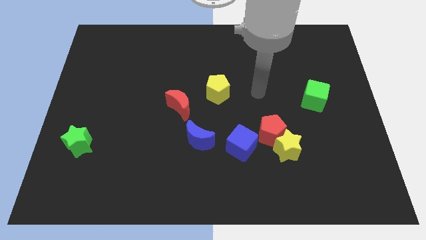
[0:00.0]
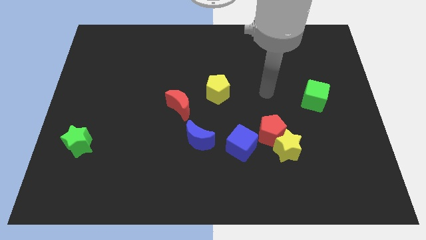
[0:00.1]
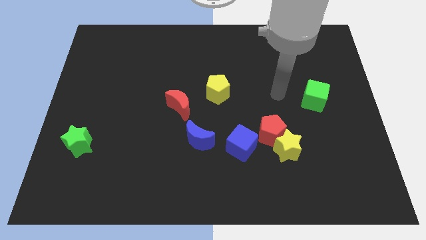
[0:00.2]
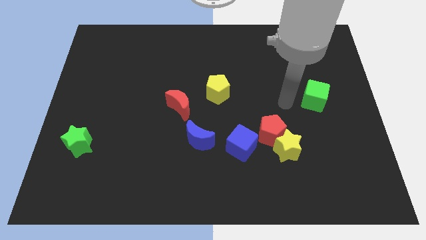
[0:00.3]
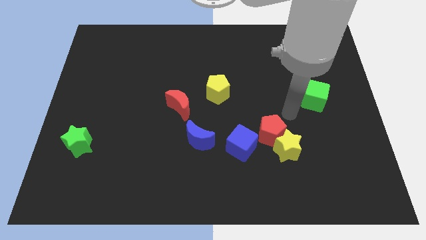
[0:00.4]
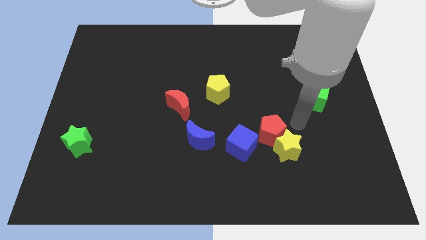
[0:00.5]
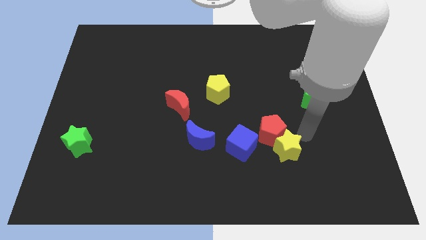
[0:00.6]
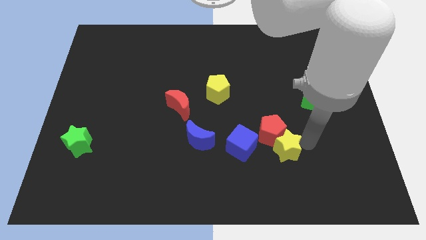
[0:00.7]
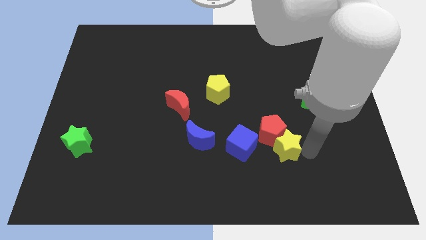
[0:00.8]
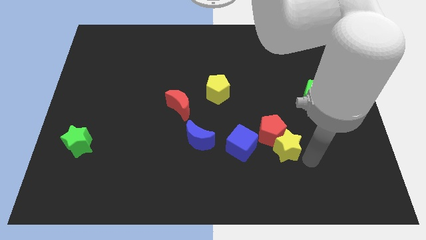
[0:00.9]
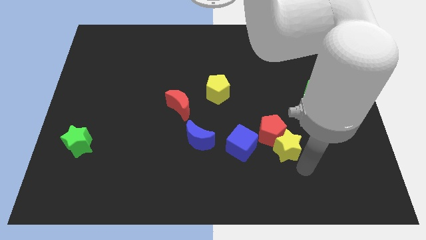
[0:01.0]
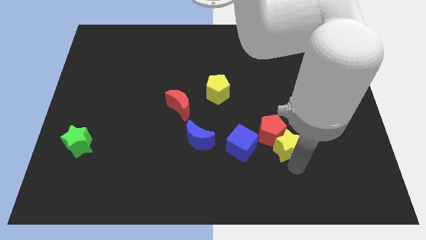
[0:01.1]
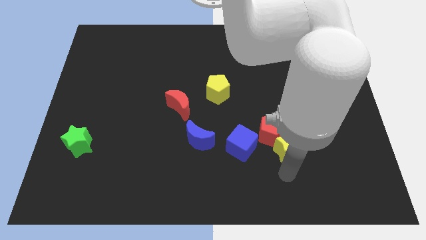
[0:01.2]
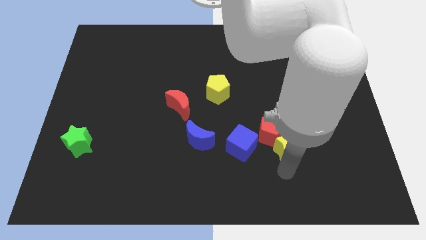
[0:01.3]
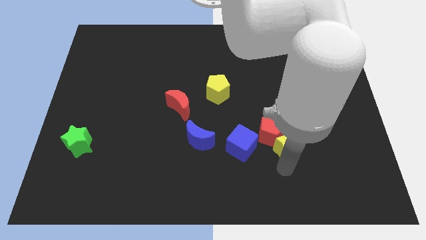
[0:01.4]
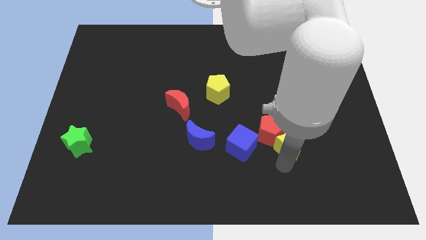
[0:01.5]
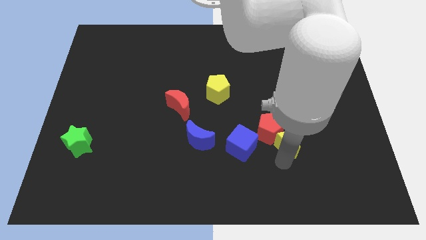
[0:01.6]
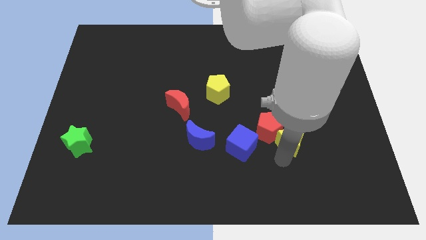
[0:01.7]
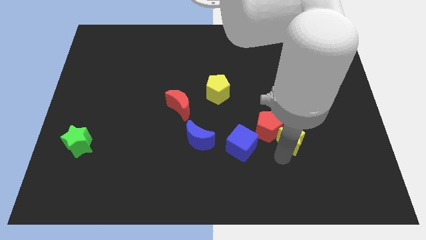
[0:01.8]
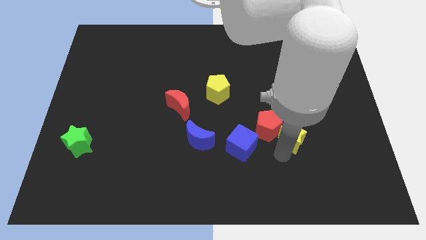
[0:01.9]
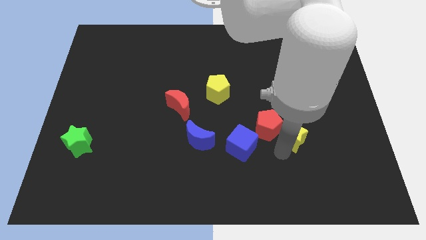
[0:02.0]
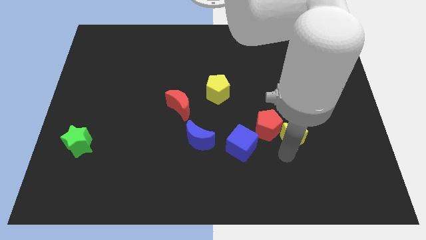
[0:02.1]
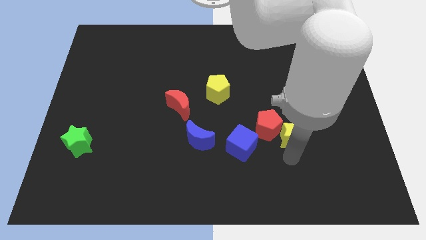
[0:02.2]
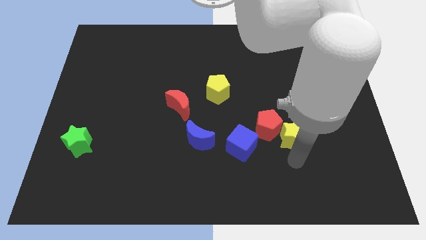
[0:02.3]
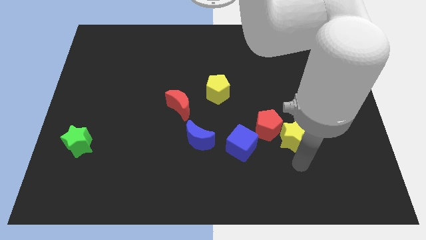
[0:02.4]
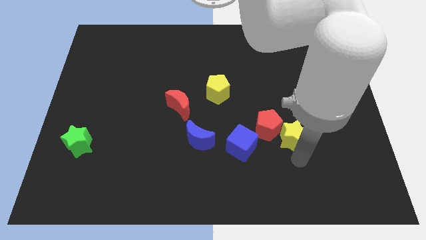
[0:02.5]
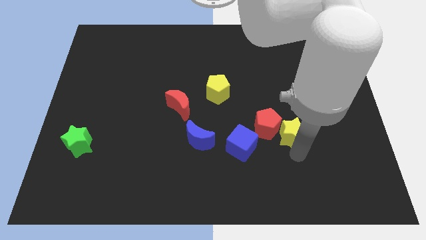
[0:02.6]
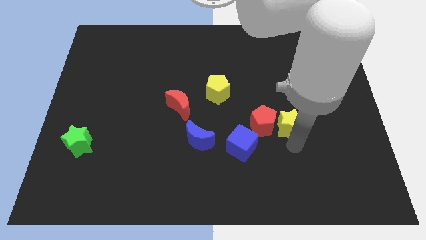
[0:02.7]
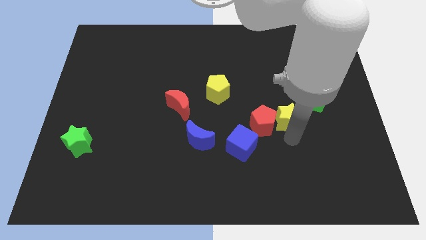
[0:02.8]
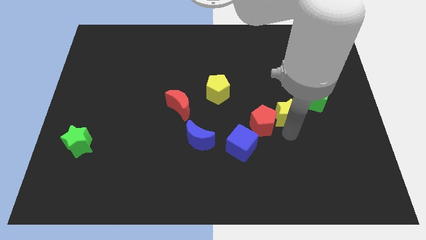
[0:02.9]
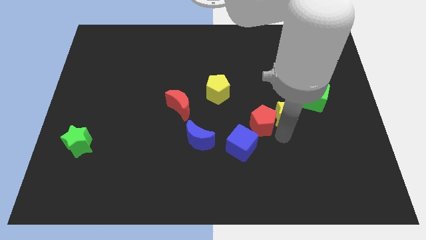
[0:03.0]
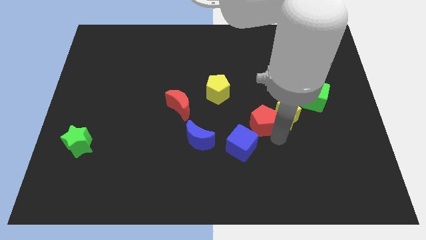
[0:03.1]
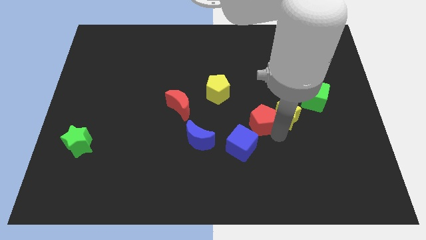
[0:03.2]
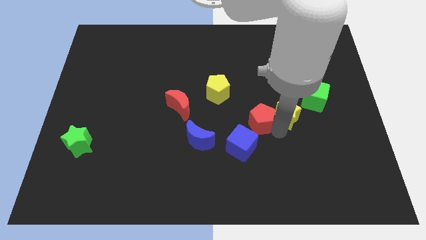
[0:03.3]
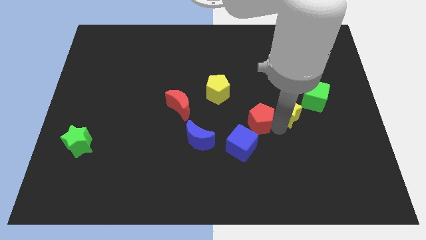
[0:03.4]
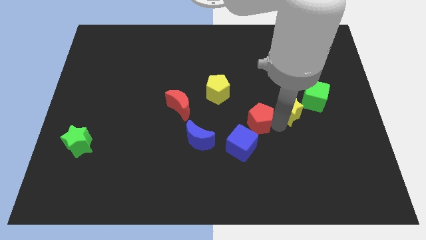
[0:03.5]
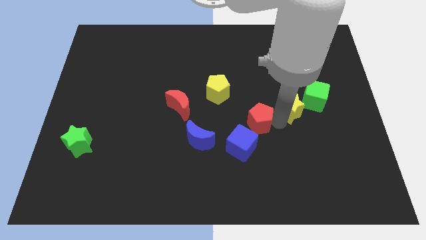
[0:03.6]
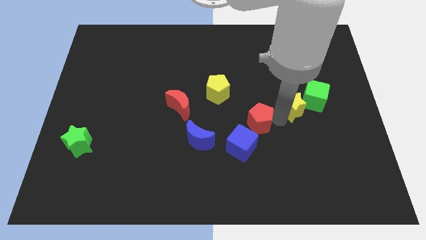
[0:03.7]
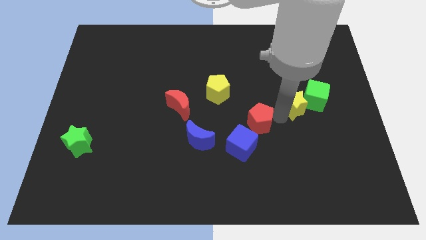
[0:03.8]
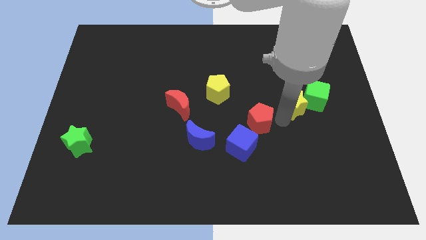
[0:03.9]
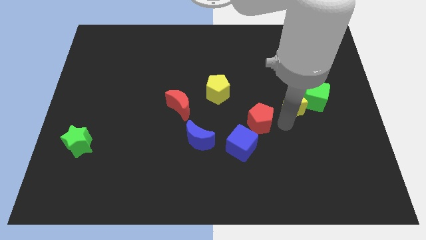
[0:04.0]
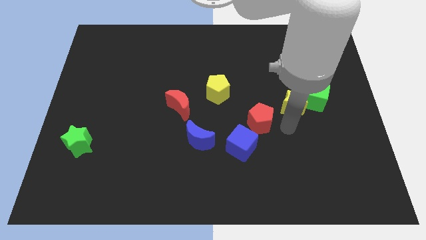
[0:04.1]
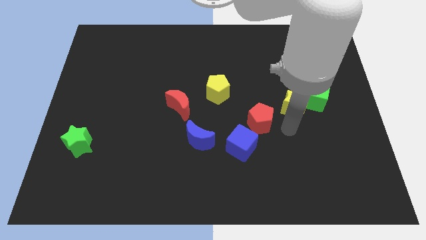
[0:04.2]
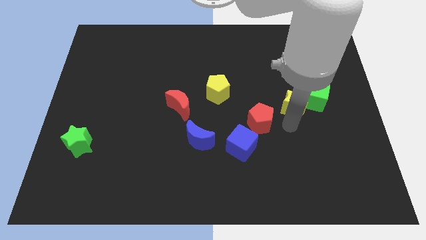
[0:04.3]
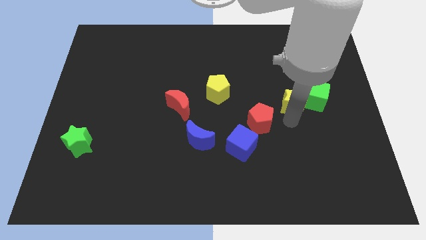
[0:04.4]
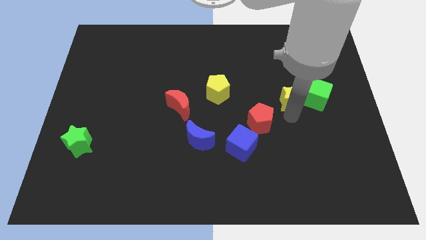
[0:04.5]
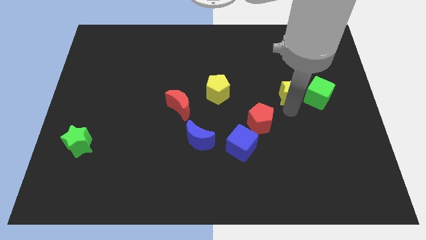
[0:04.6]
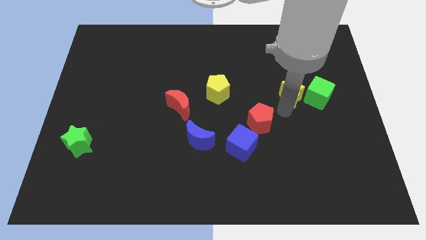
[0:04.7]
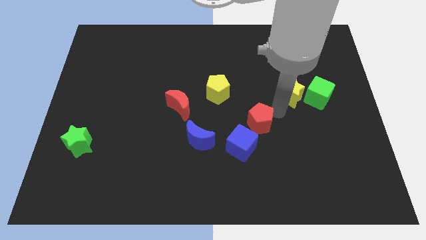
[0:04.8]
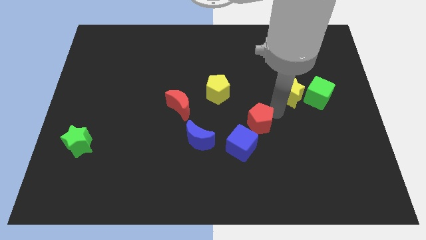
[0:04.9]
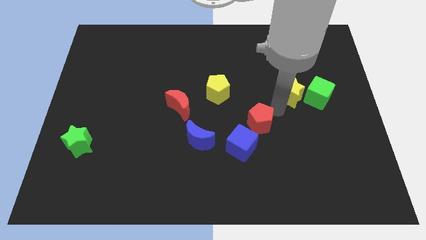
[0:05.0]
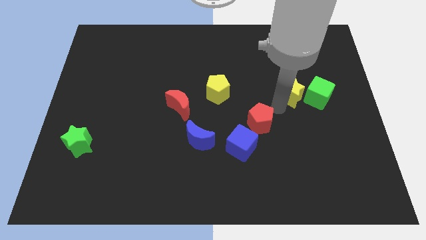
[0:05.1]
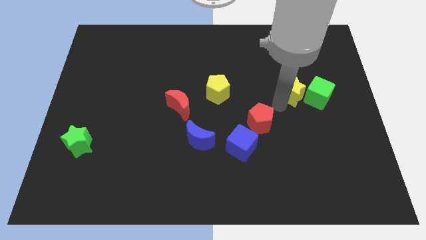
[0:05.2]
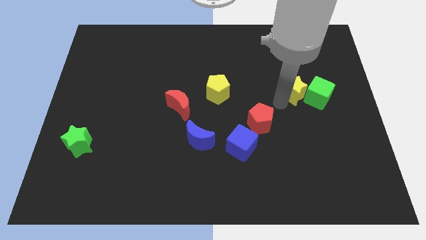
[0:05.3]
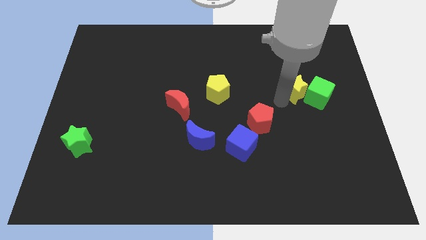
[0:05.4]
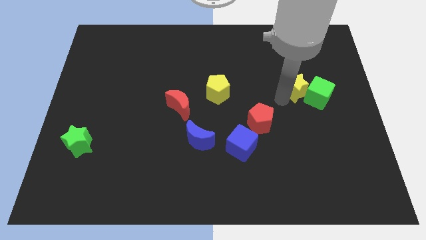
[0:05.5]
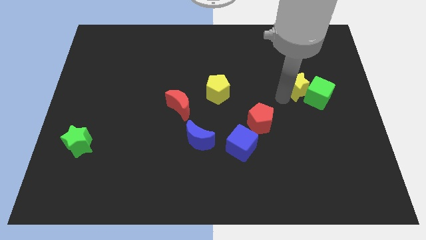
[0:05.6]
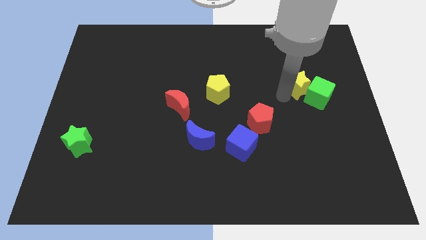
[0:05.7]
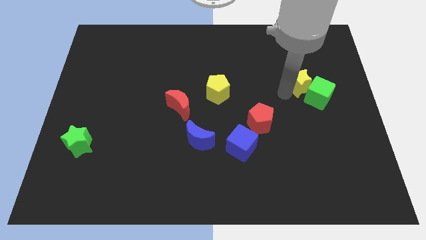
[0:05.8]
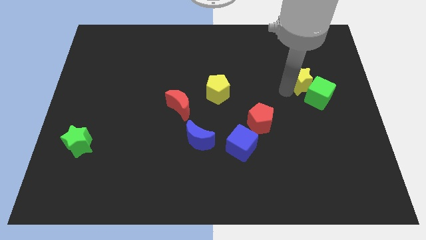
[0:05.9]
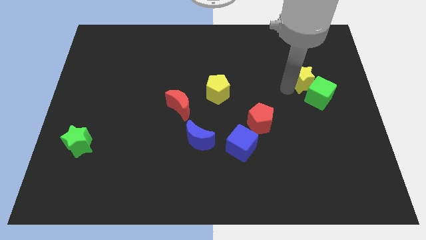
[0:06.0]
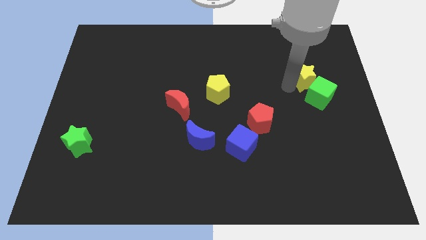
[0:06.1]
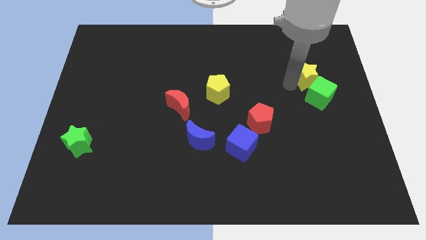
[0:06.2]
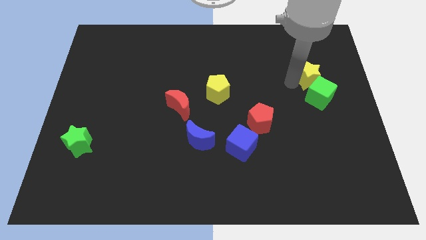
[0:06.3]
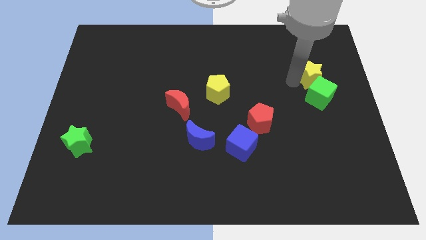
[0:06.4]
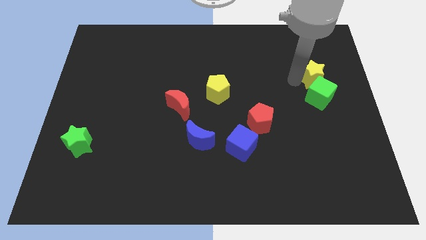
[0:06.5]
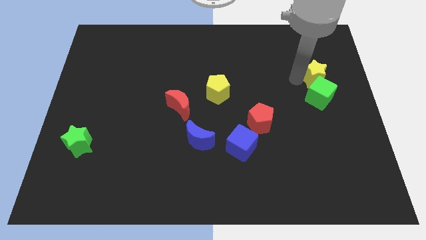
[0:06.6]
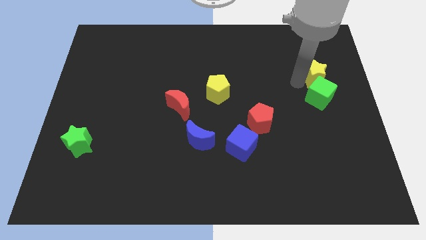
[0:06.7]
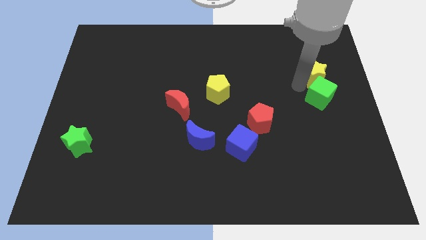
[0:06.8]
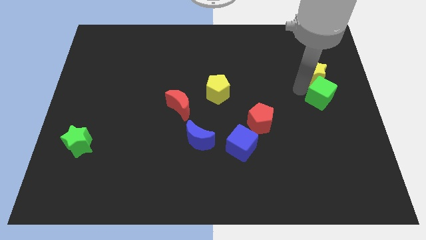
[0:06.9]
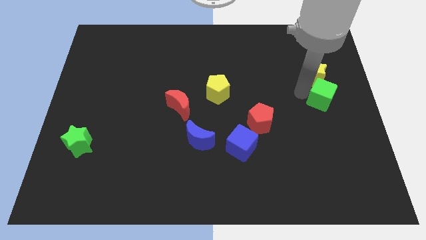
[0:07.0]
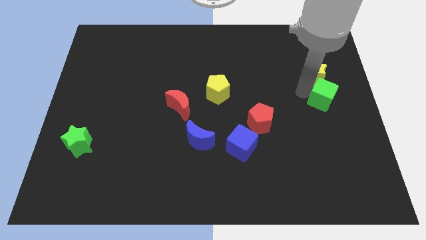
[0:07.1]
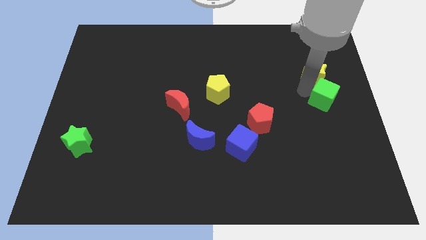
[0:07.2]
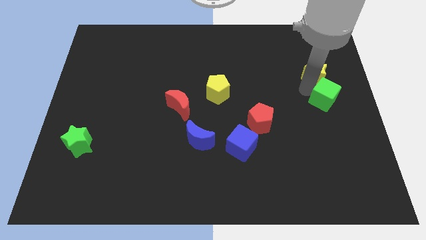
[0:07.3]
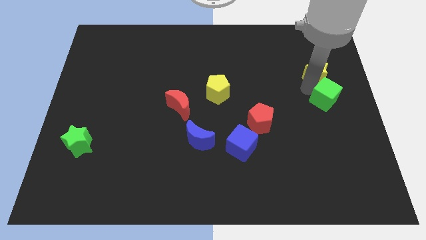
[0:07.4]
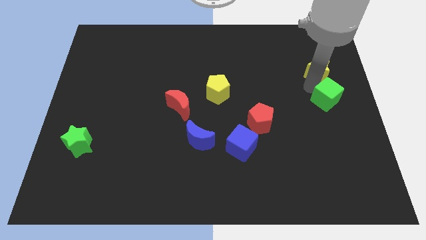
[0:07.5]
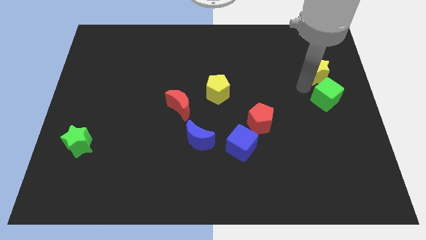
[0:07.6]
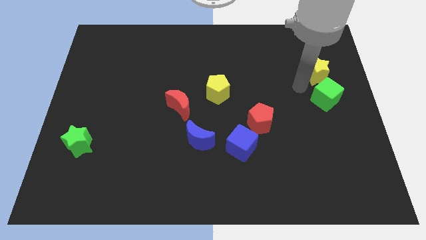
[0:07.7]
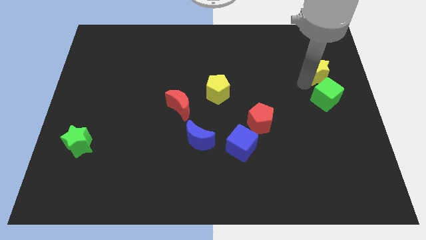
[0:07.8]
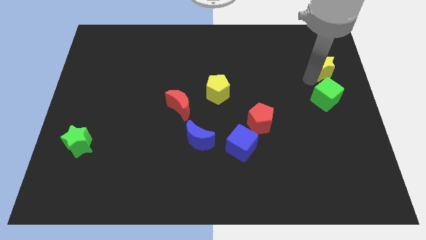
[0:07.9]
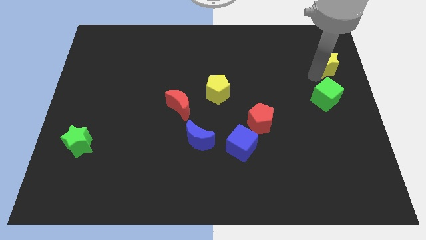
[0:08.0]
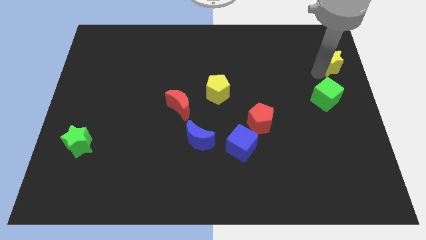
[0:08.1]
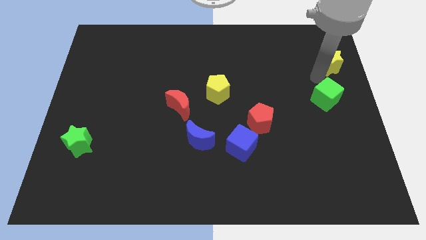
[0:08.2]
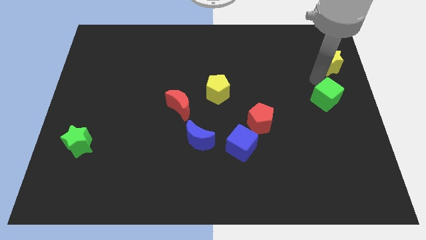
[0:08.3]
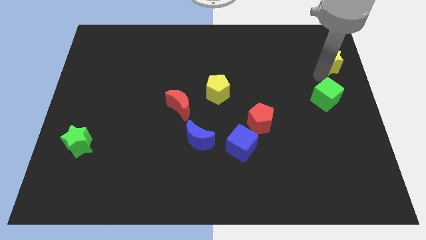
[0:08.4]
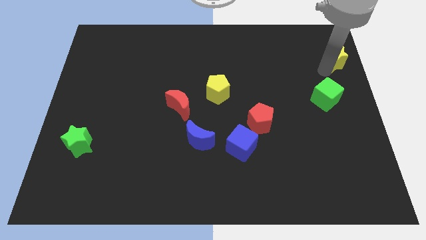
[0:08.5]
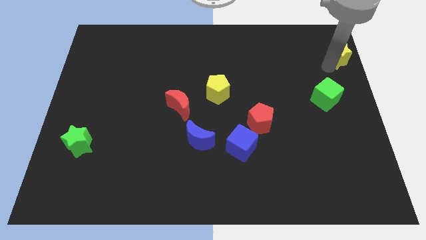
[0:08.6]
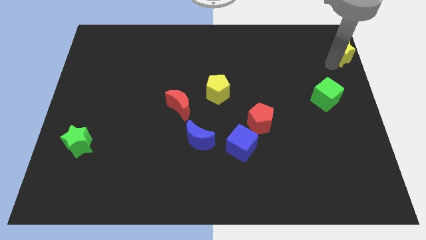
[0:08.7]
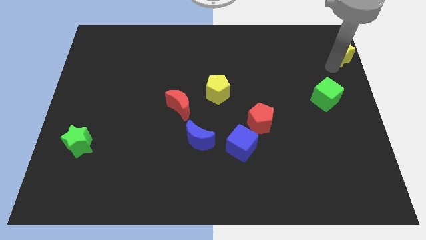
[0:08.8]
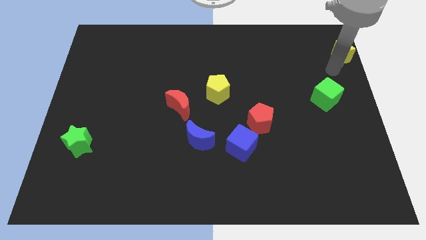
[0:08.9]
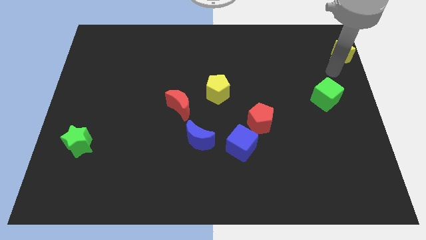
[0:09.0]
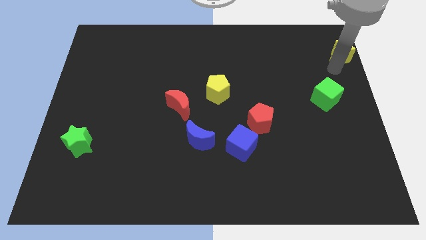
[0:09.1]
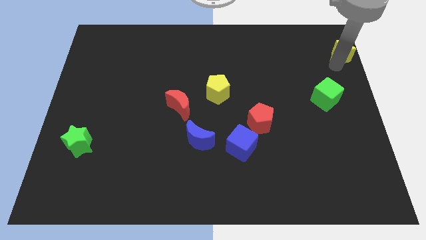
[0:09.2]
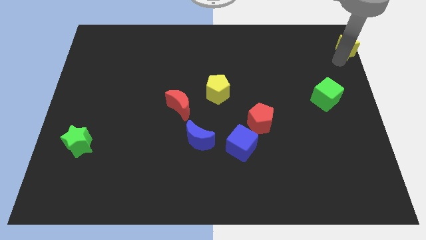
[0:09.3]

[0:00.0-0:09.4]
push the yellow star to the top right of the board
